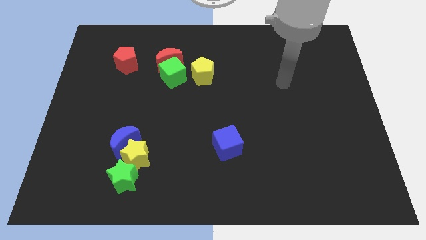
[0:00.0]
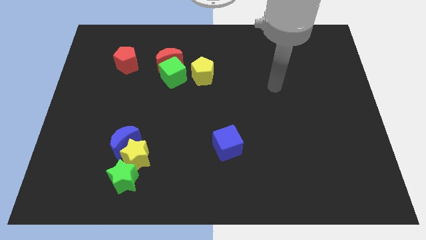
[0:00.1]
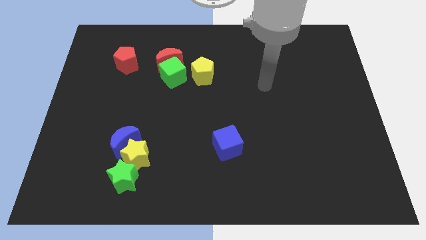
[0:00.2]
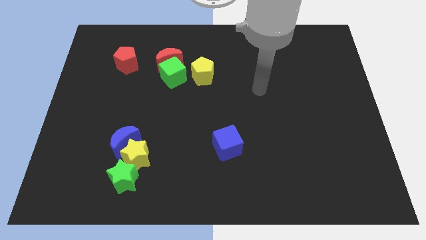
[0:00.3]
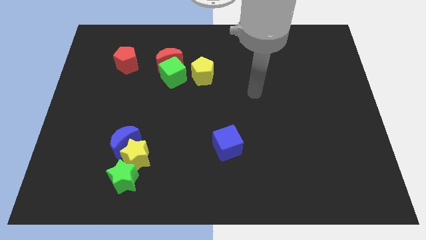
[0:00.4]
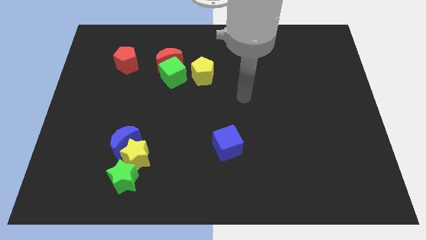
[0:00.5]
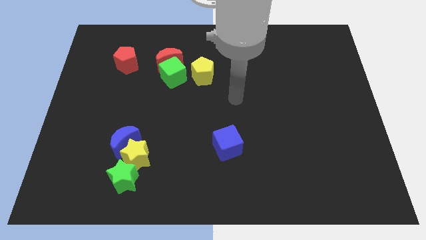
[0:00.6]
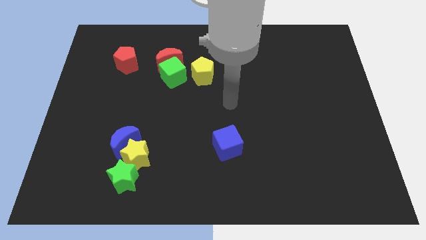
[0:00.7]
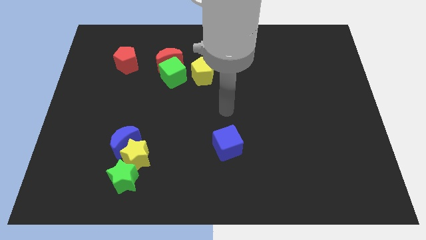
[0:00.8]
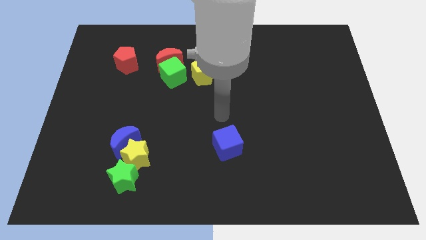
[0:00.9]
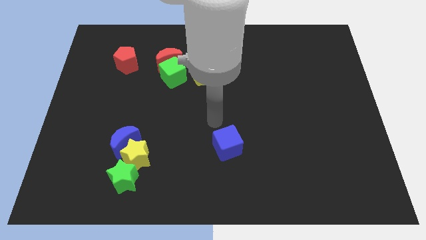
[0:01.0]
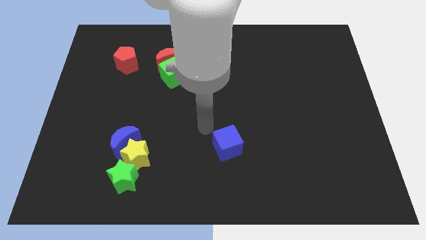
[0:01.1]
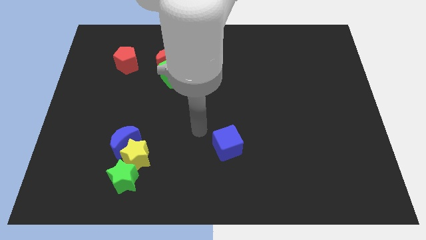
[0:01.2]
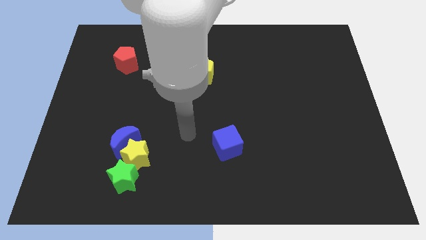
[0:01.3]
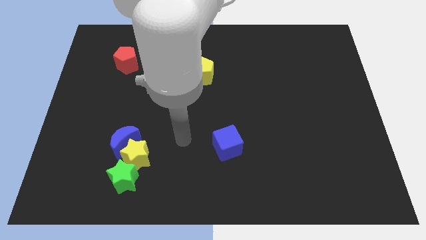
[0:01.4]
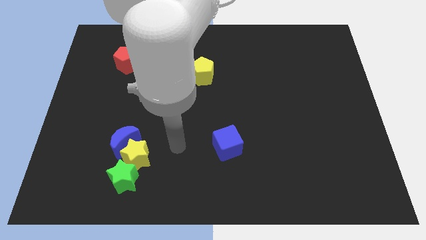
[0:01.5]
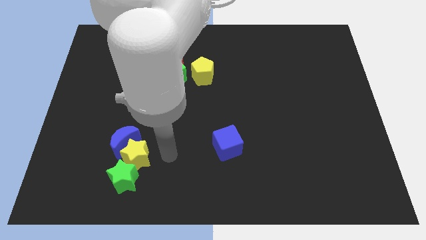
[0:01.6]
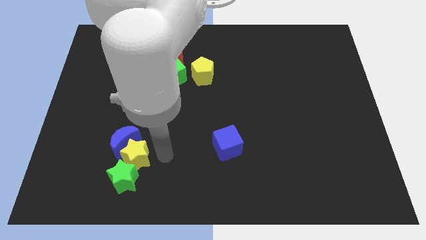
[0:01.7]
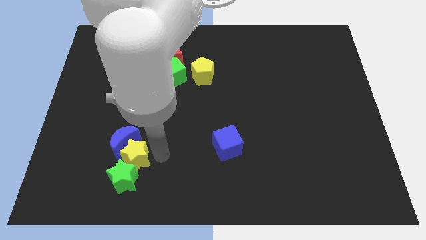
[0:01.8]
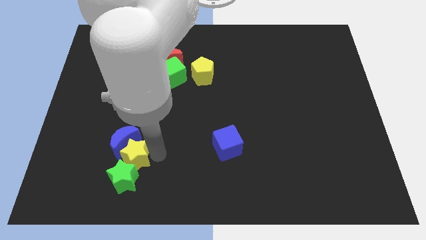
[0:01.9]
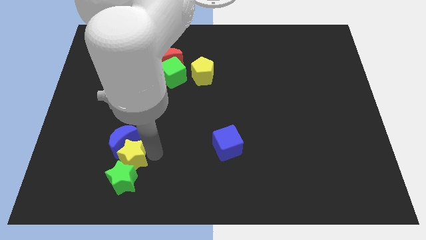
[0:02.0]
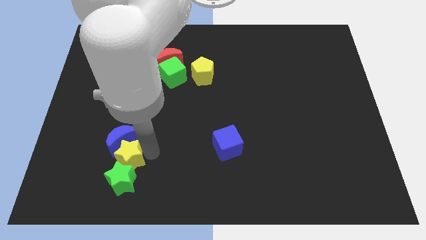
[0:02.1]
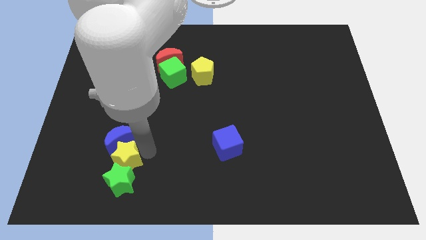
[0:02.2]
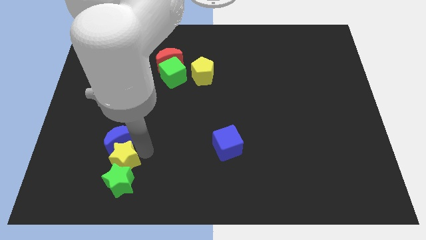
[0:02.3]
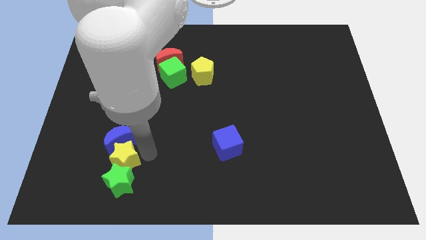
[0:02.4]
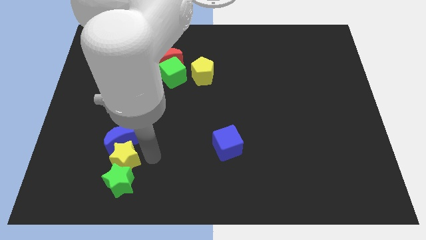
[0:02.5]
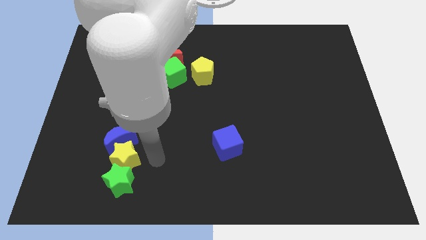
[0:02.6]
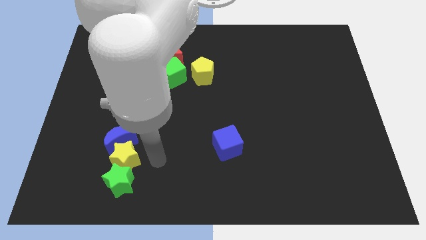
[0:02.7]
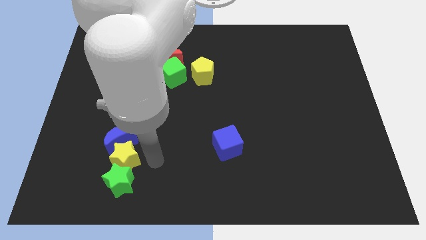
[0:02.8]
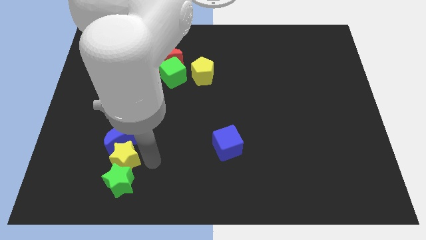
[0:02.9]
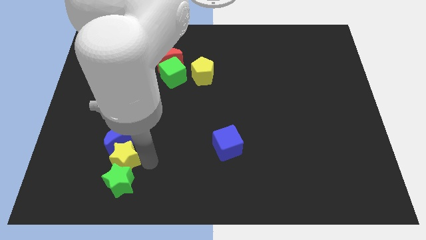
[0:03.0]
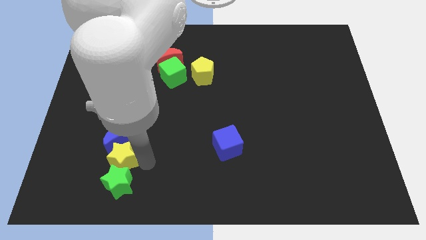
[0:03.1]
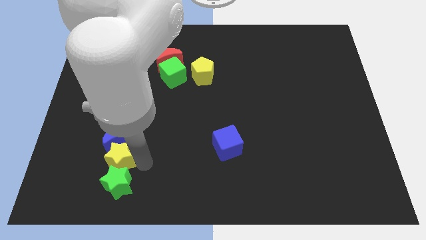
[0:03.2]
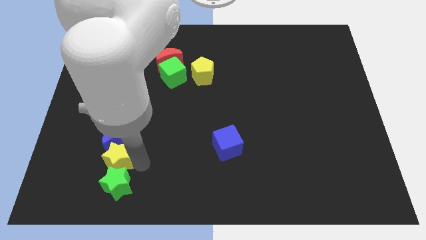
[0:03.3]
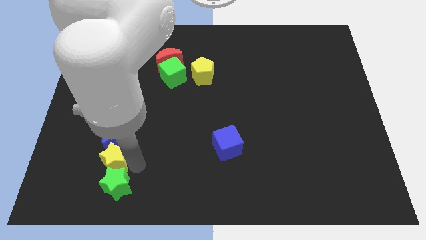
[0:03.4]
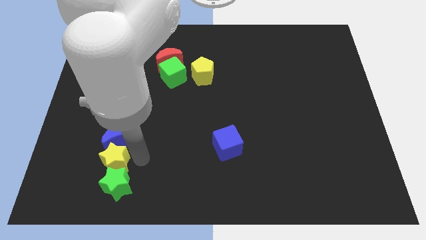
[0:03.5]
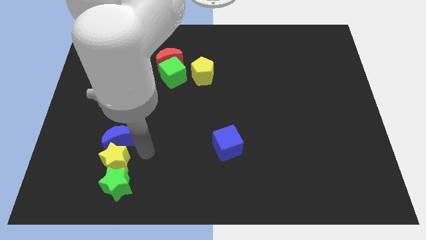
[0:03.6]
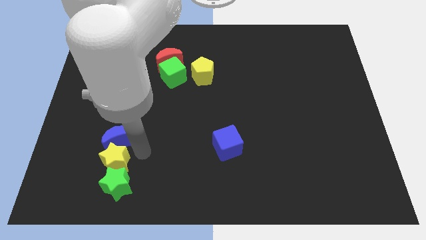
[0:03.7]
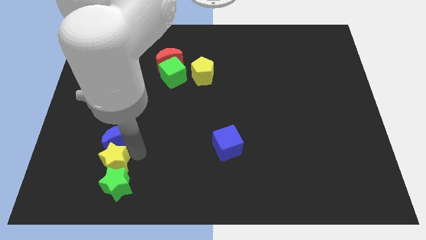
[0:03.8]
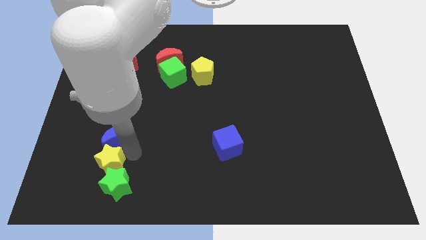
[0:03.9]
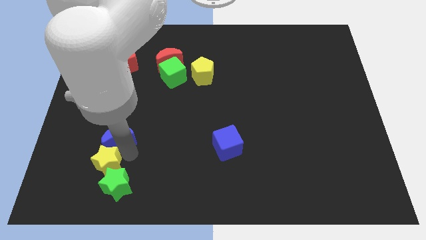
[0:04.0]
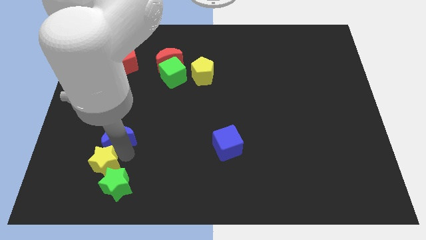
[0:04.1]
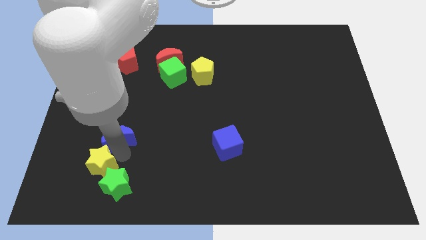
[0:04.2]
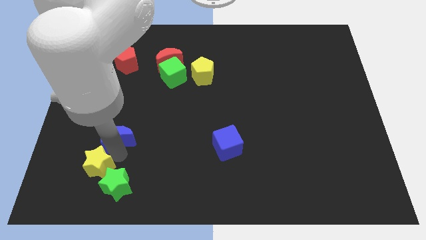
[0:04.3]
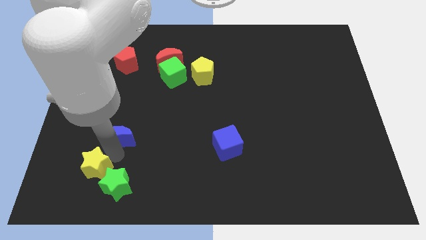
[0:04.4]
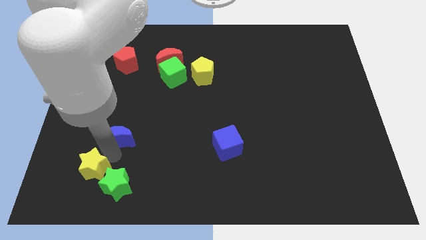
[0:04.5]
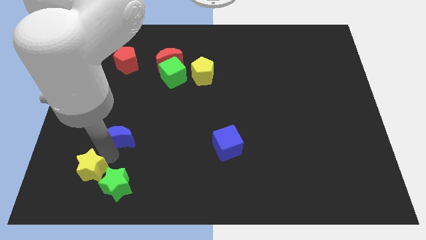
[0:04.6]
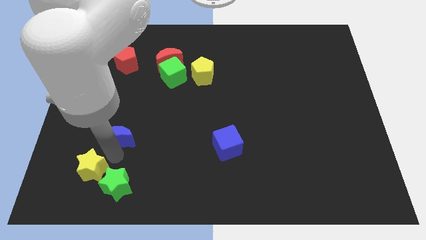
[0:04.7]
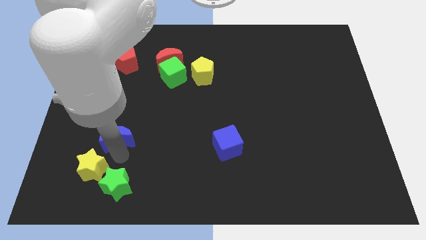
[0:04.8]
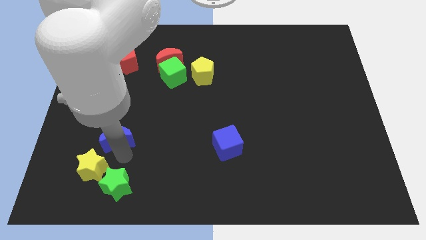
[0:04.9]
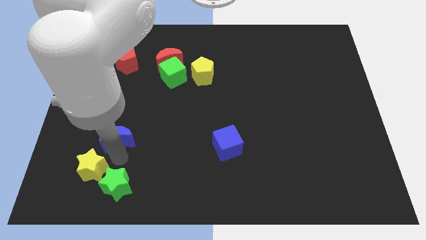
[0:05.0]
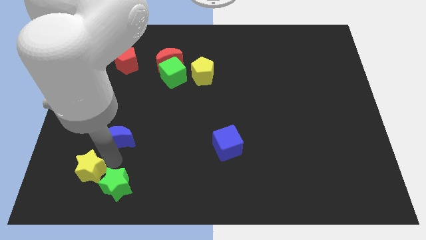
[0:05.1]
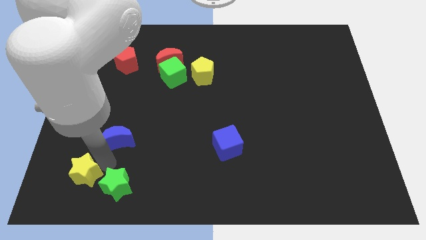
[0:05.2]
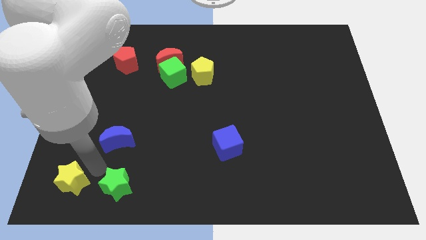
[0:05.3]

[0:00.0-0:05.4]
push the yellow star to the bottom left corner

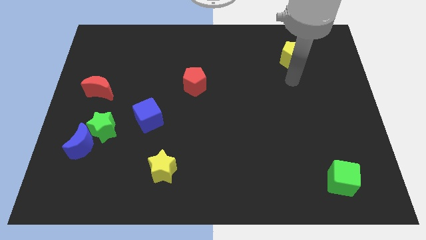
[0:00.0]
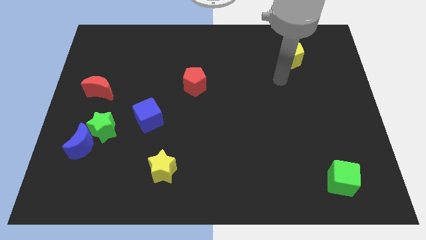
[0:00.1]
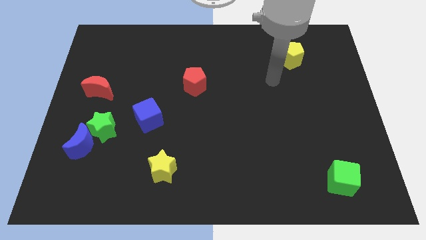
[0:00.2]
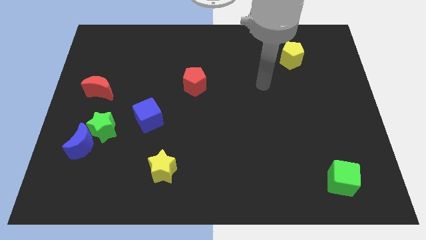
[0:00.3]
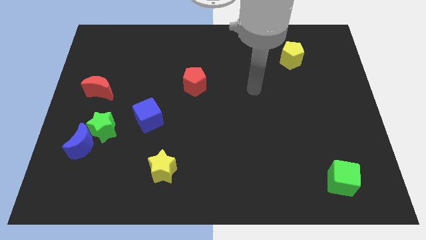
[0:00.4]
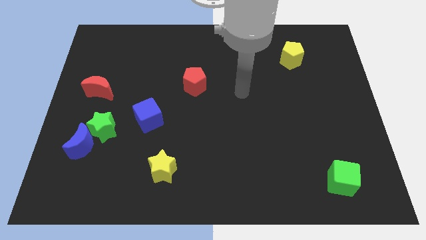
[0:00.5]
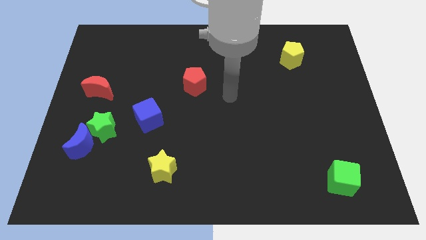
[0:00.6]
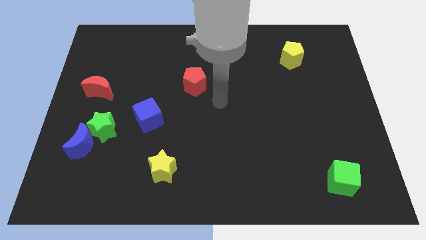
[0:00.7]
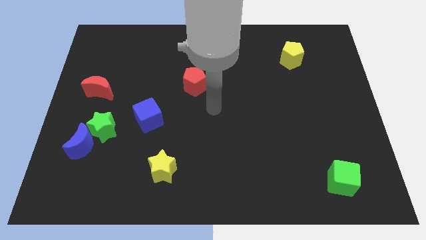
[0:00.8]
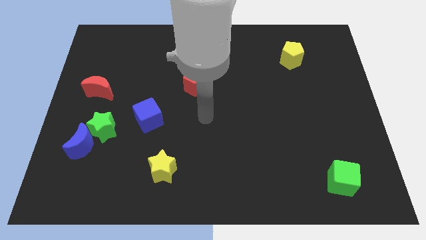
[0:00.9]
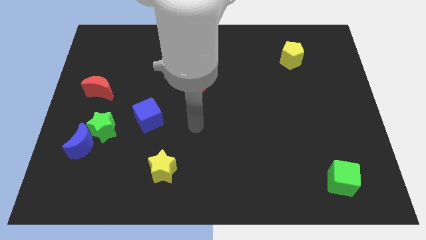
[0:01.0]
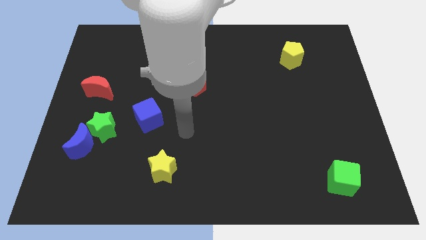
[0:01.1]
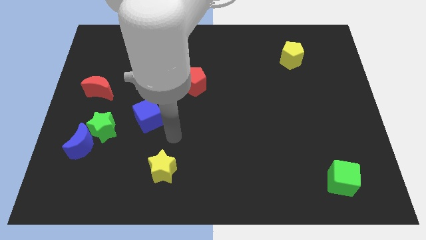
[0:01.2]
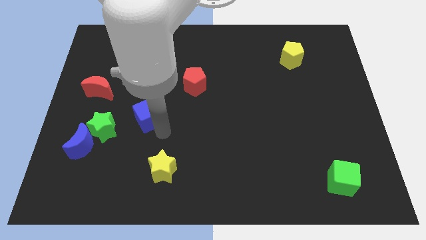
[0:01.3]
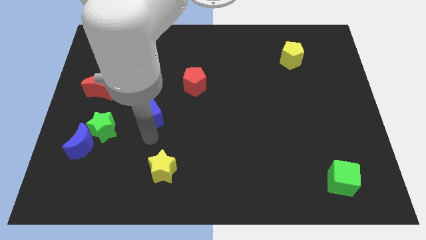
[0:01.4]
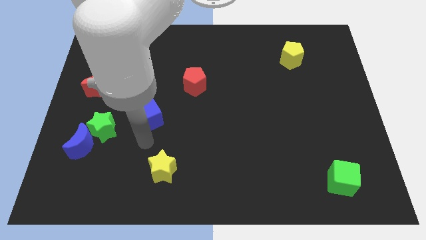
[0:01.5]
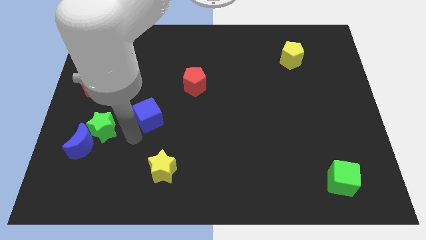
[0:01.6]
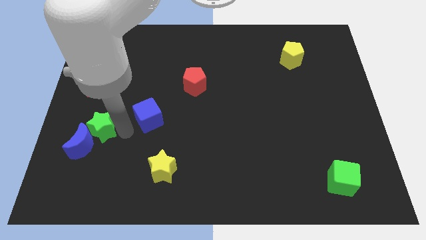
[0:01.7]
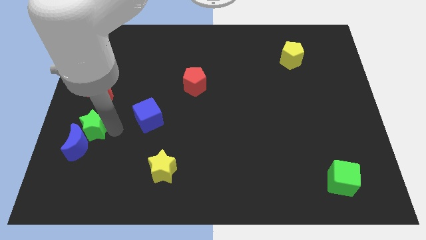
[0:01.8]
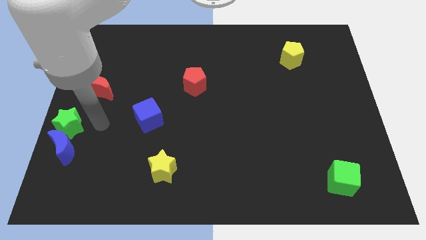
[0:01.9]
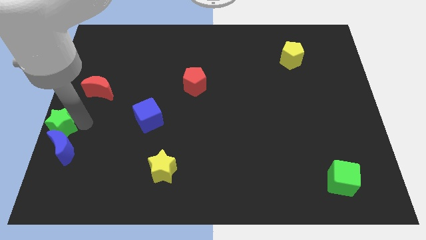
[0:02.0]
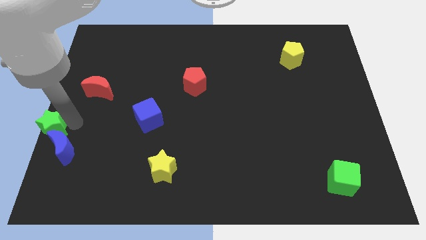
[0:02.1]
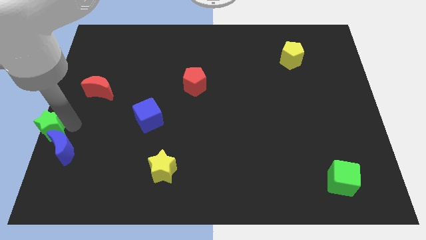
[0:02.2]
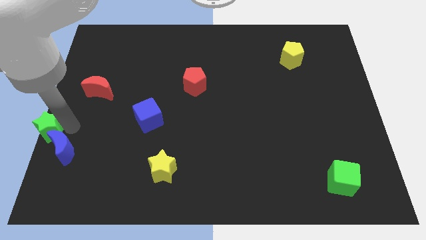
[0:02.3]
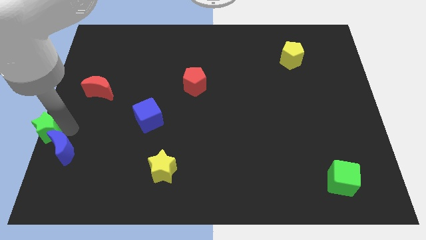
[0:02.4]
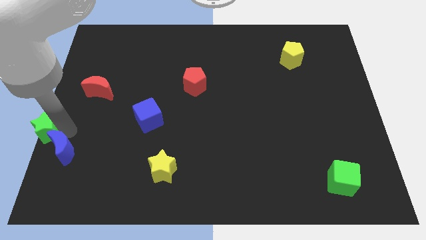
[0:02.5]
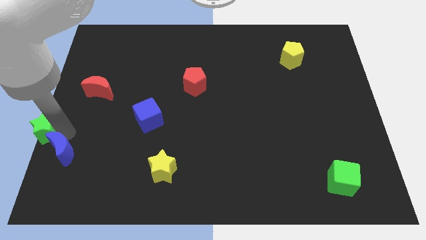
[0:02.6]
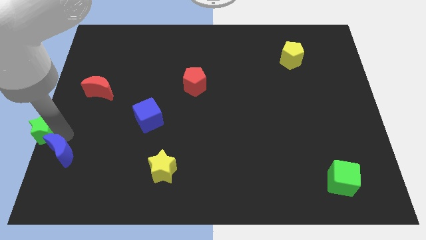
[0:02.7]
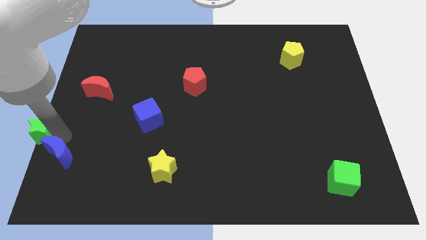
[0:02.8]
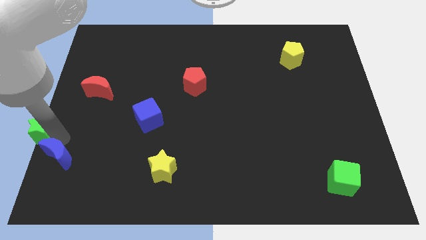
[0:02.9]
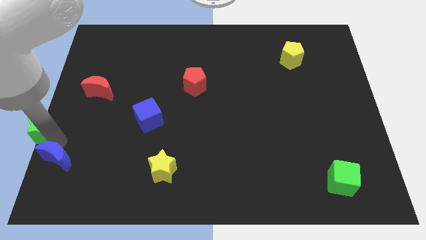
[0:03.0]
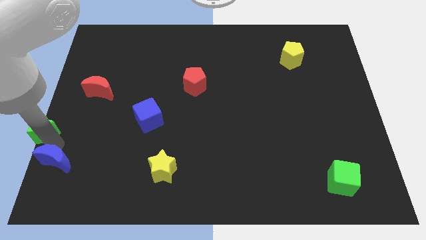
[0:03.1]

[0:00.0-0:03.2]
push the blue moon to the bottom left of the board
